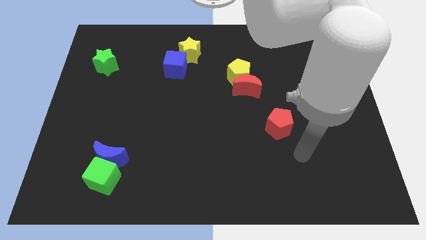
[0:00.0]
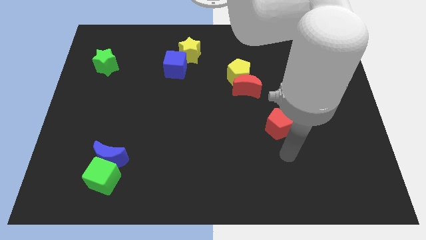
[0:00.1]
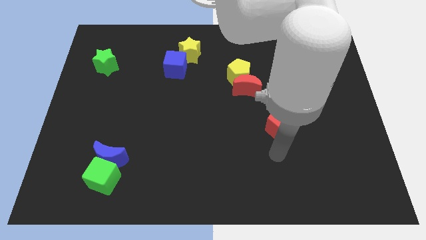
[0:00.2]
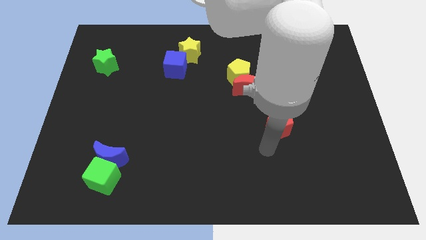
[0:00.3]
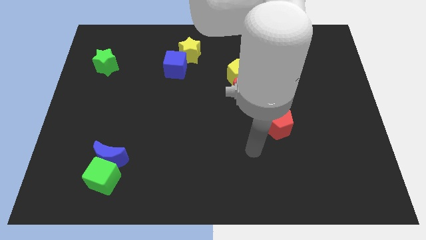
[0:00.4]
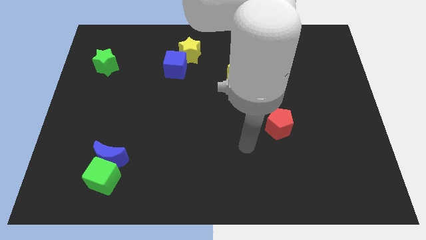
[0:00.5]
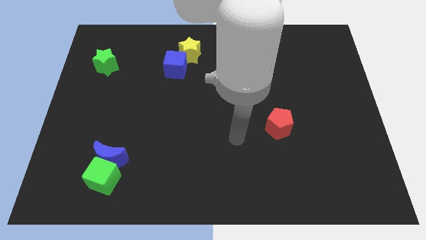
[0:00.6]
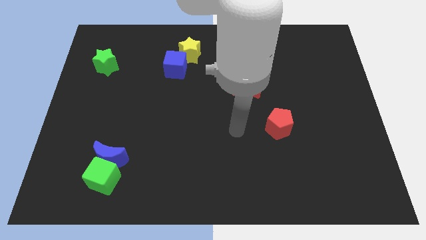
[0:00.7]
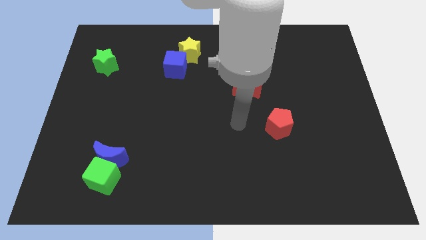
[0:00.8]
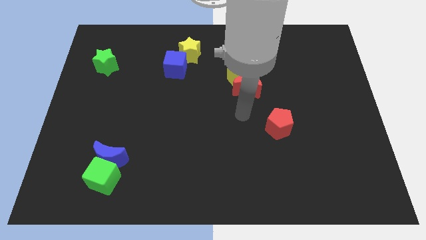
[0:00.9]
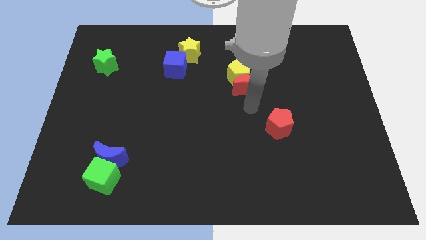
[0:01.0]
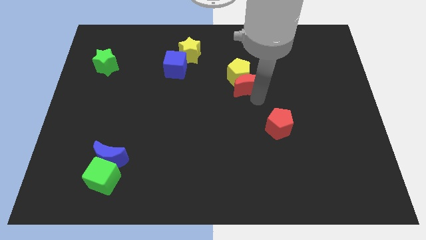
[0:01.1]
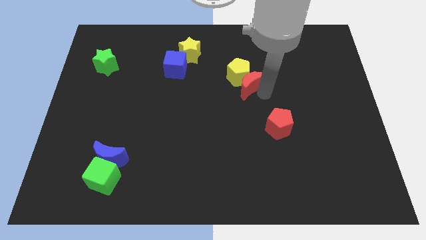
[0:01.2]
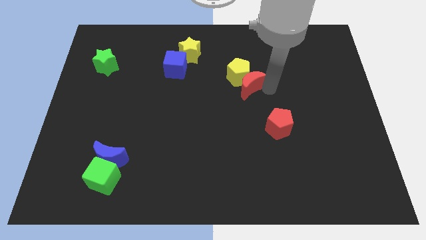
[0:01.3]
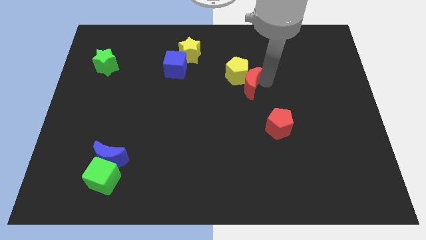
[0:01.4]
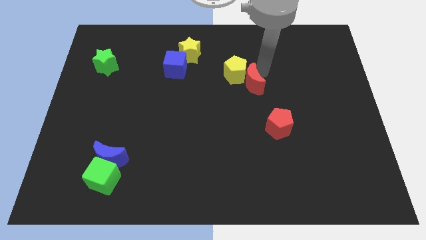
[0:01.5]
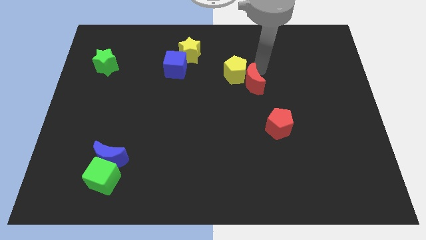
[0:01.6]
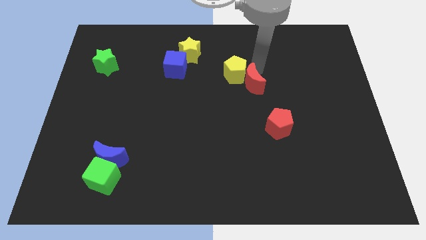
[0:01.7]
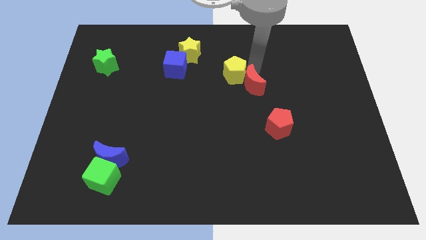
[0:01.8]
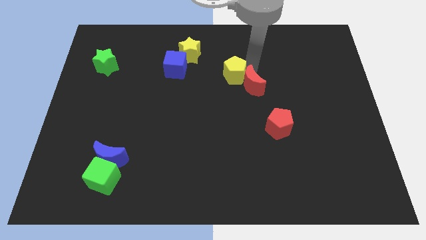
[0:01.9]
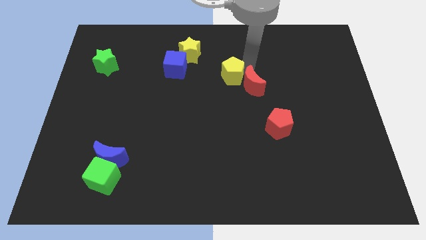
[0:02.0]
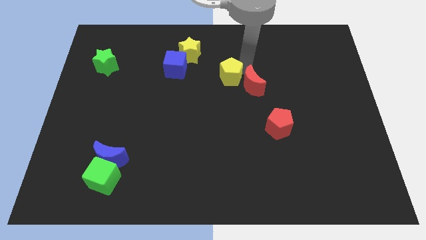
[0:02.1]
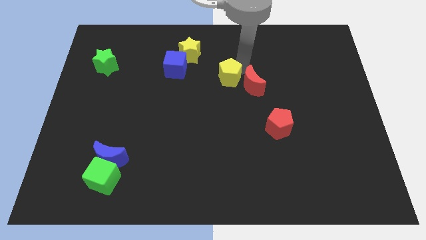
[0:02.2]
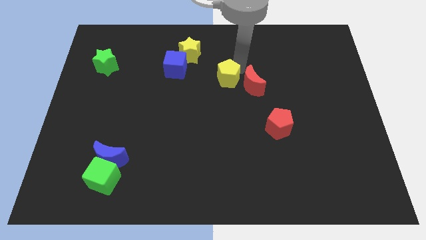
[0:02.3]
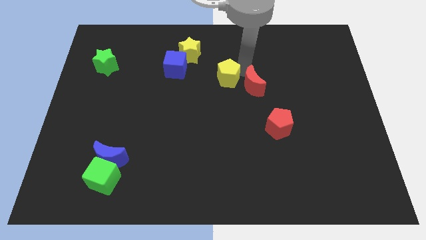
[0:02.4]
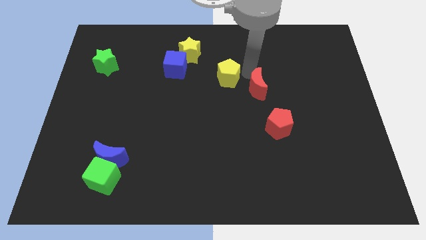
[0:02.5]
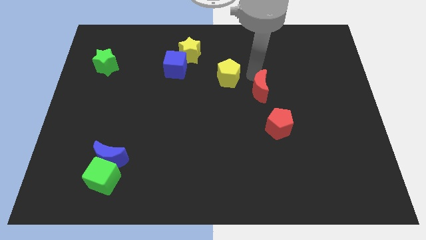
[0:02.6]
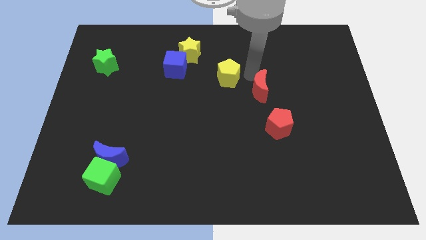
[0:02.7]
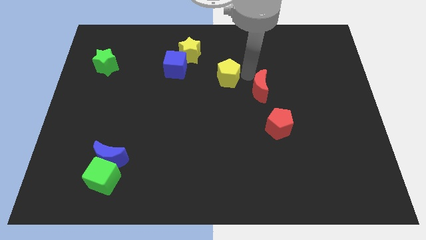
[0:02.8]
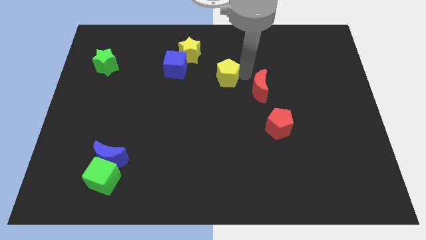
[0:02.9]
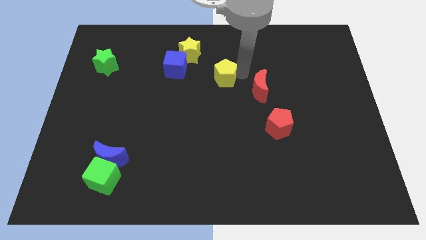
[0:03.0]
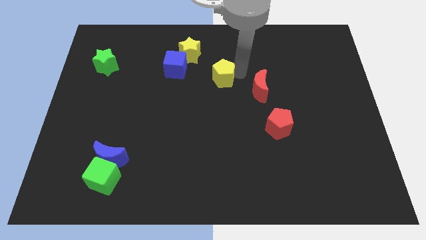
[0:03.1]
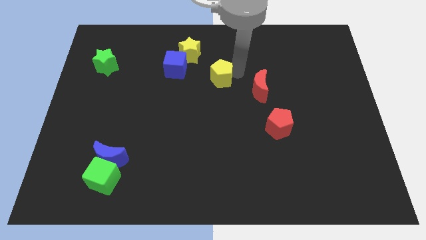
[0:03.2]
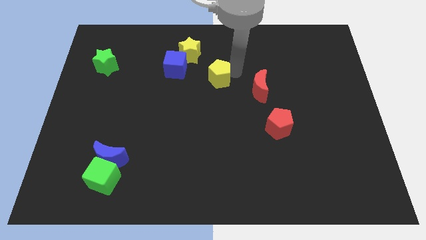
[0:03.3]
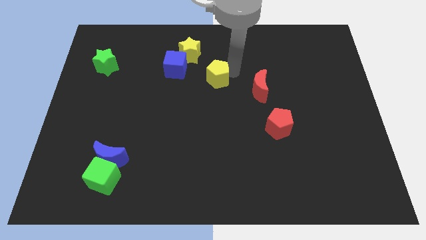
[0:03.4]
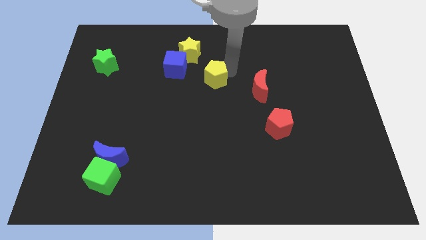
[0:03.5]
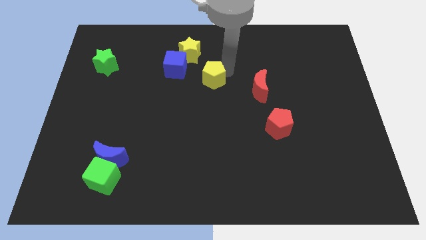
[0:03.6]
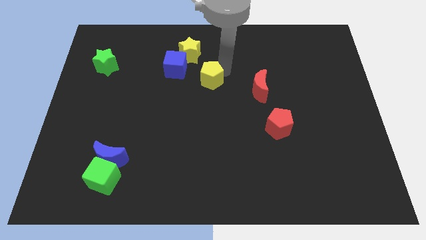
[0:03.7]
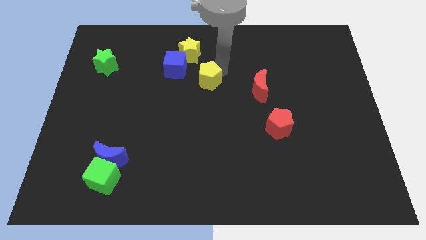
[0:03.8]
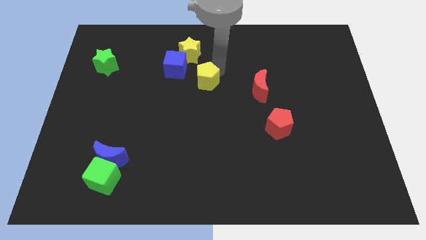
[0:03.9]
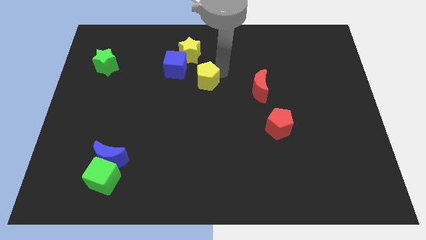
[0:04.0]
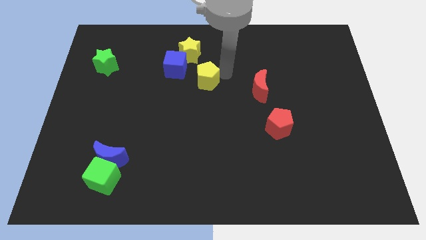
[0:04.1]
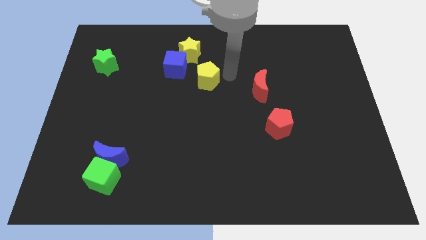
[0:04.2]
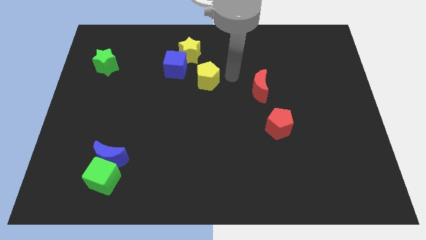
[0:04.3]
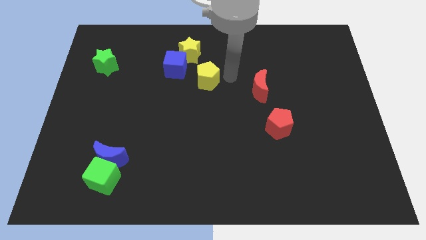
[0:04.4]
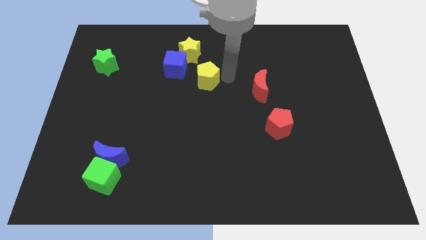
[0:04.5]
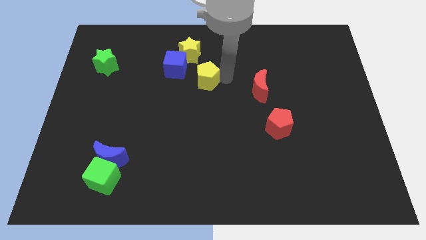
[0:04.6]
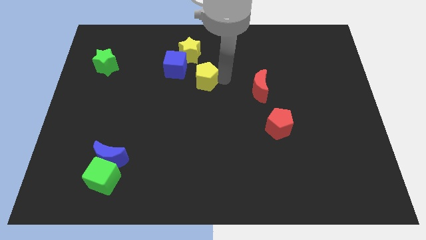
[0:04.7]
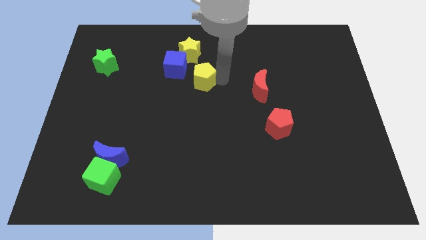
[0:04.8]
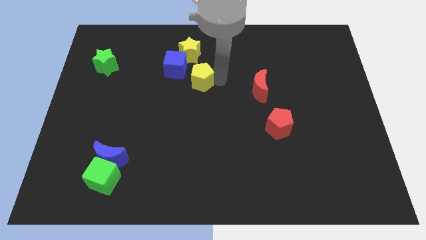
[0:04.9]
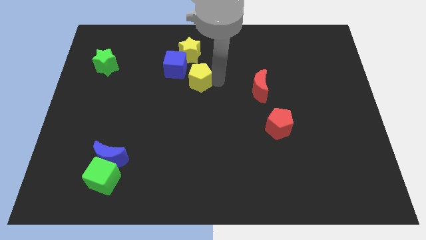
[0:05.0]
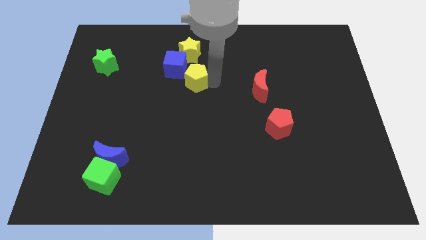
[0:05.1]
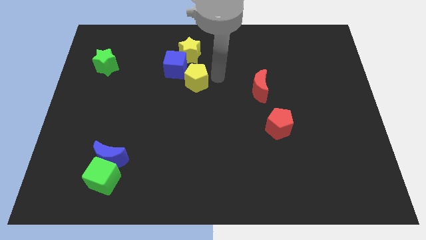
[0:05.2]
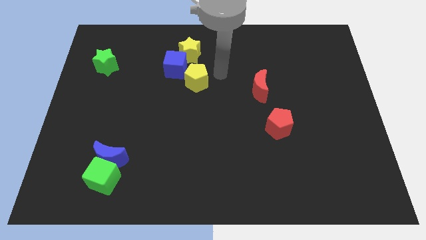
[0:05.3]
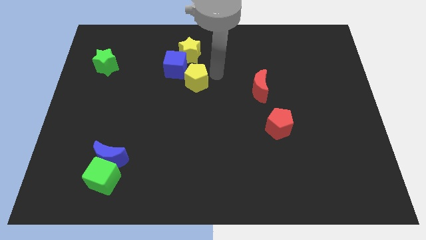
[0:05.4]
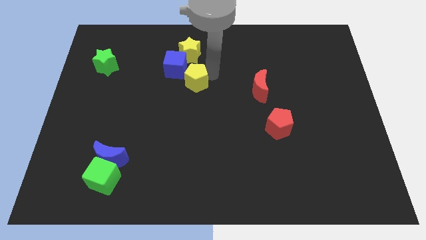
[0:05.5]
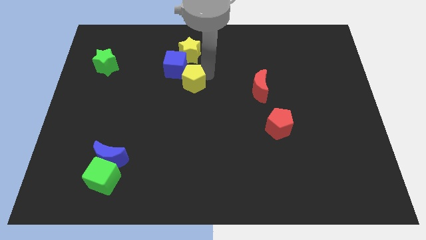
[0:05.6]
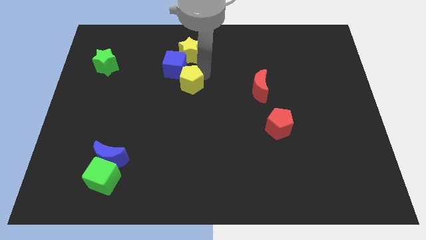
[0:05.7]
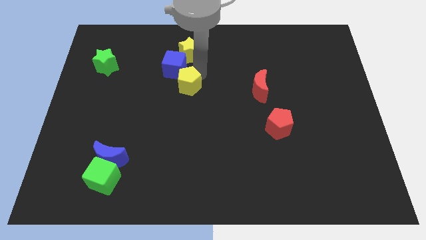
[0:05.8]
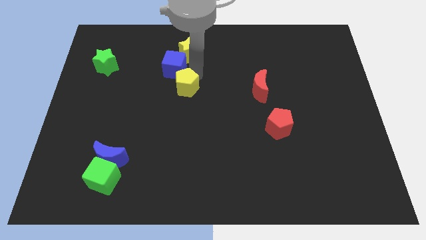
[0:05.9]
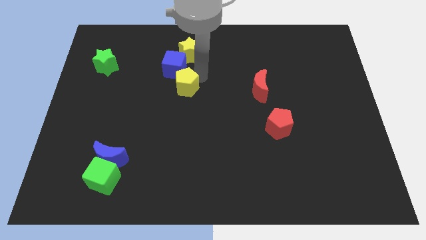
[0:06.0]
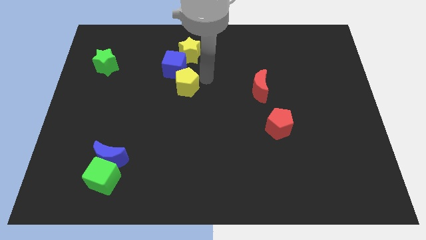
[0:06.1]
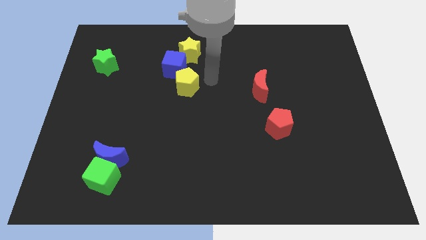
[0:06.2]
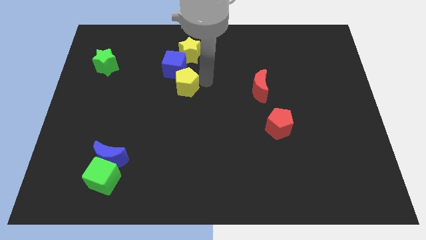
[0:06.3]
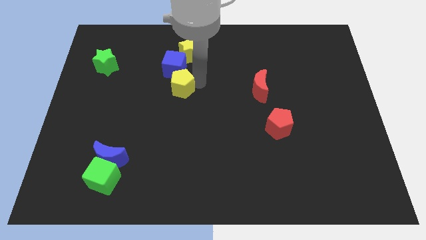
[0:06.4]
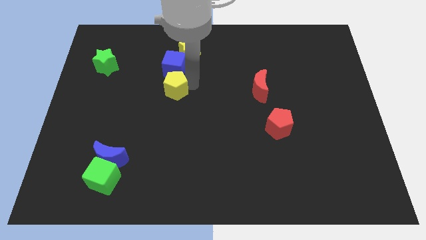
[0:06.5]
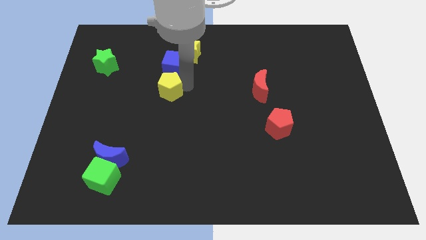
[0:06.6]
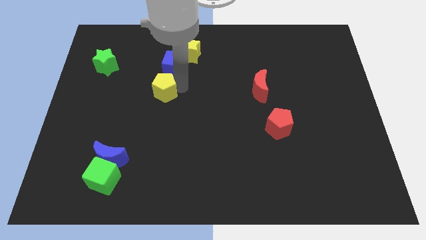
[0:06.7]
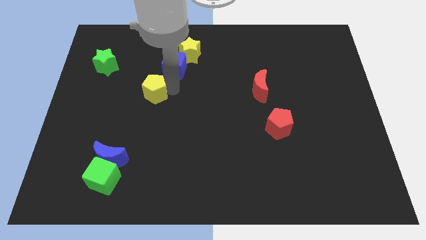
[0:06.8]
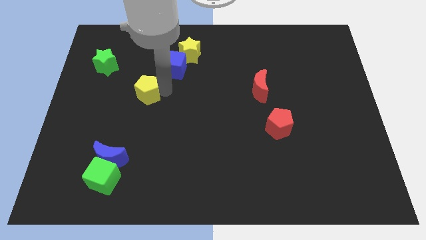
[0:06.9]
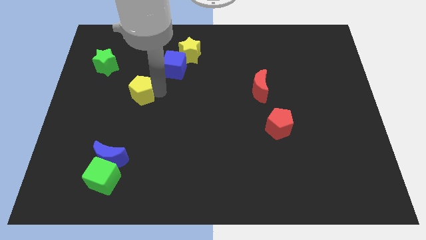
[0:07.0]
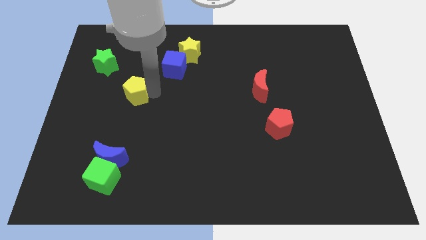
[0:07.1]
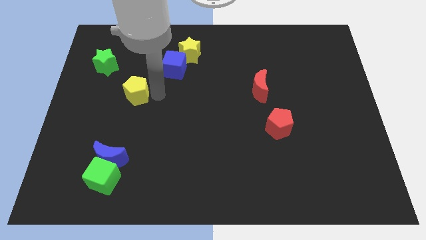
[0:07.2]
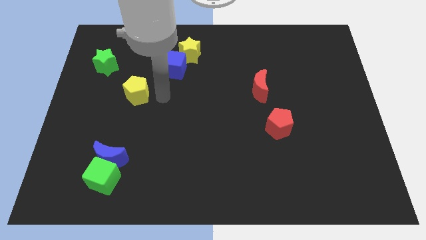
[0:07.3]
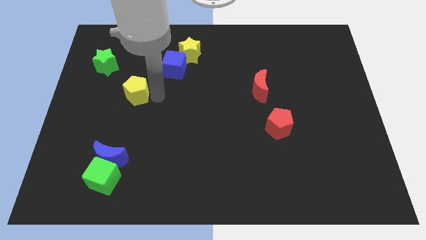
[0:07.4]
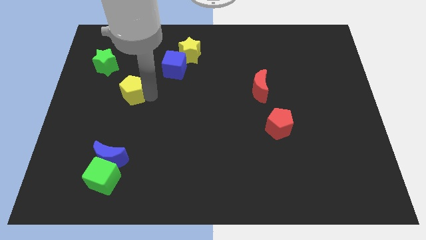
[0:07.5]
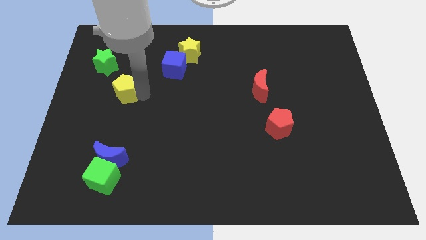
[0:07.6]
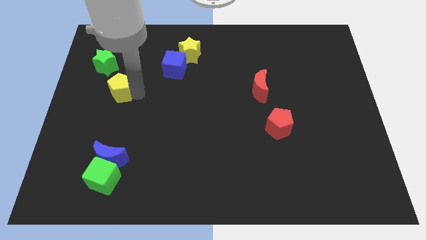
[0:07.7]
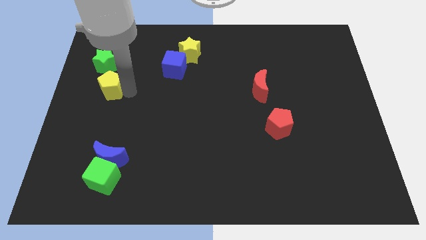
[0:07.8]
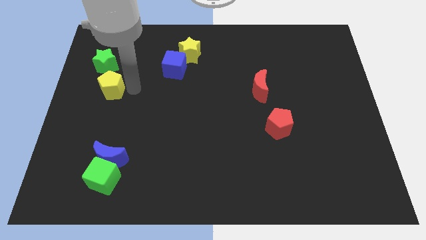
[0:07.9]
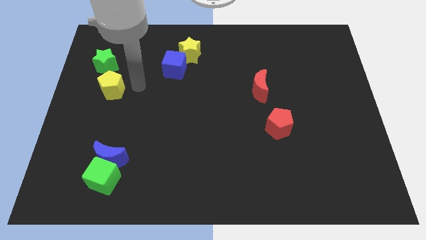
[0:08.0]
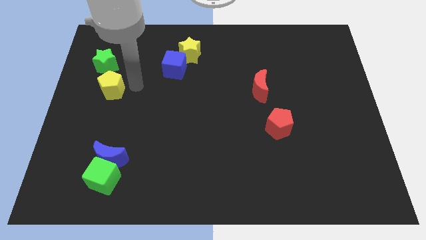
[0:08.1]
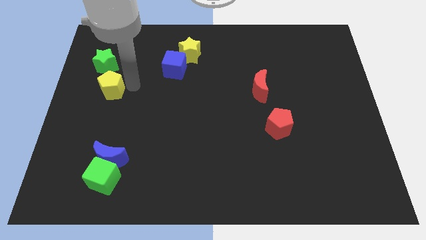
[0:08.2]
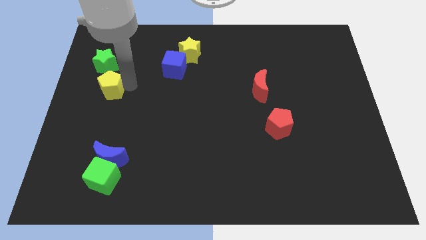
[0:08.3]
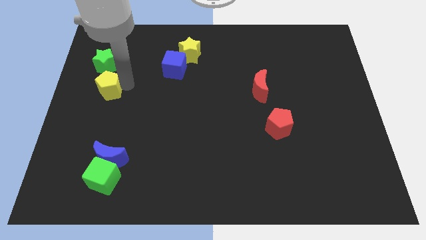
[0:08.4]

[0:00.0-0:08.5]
slide the yellow pentagon to the left side of the board

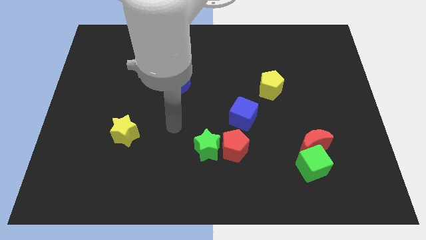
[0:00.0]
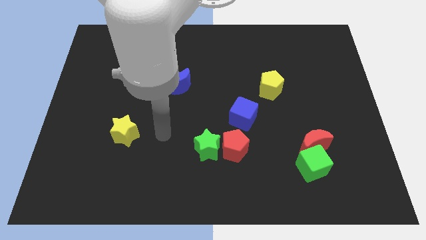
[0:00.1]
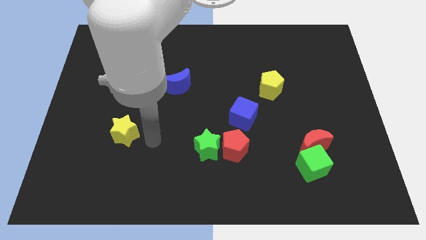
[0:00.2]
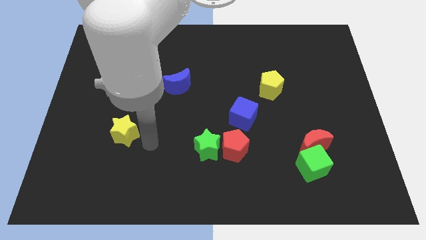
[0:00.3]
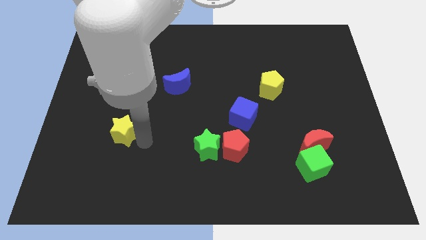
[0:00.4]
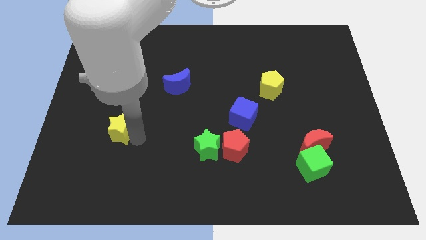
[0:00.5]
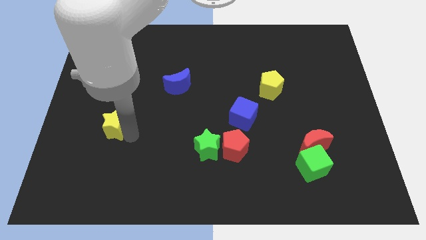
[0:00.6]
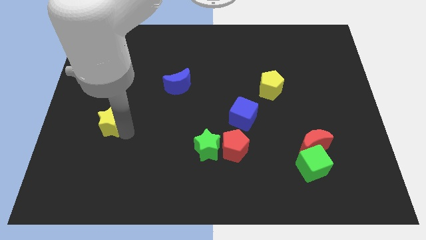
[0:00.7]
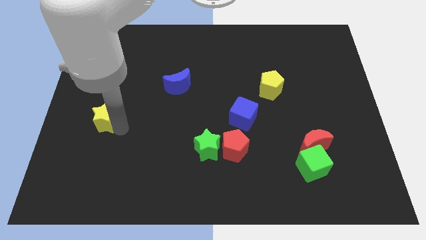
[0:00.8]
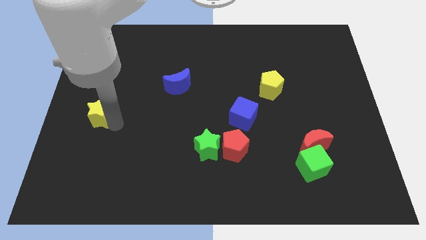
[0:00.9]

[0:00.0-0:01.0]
push the yellow star to the left side of the board
